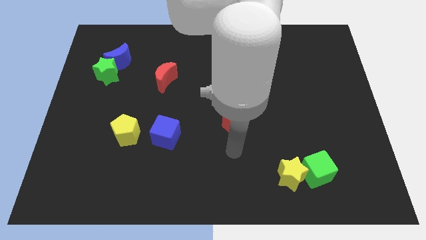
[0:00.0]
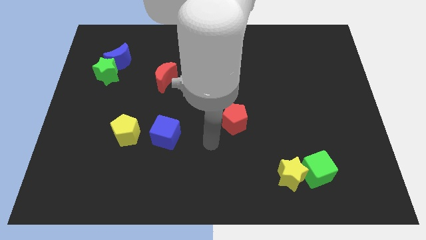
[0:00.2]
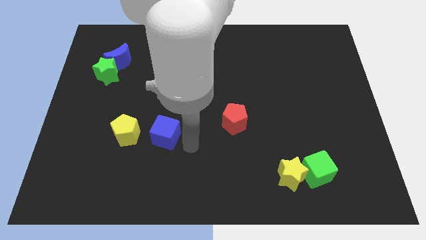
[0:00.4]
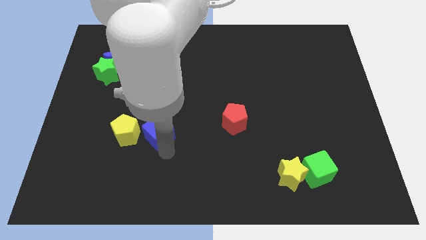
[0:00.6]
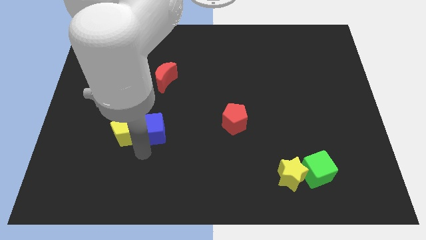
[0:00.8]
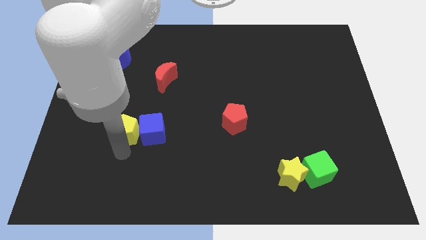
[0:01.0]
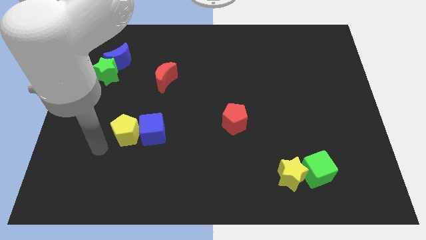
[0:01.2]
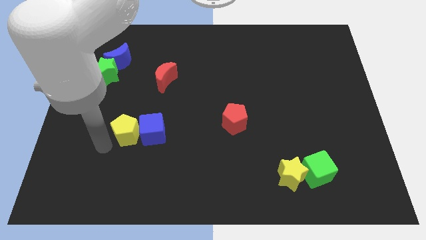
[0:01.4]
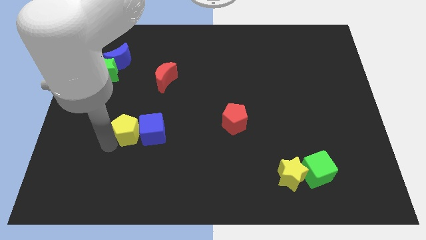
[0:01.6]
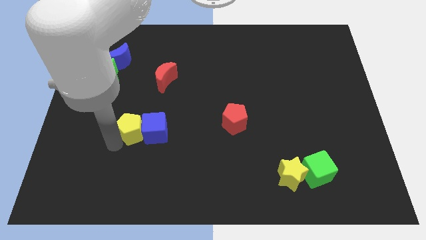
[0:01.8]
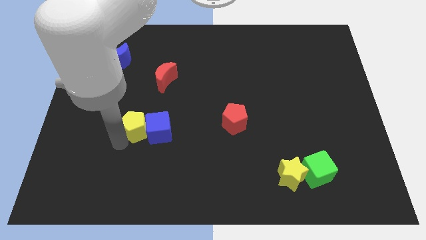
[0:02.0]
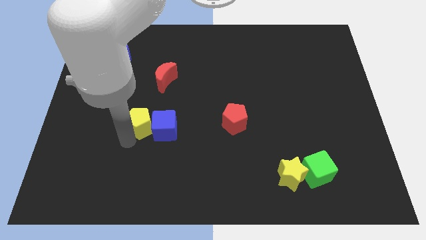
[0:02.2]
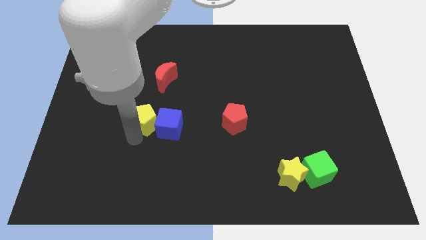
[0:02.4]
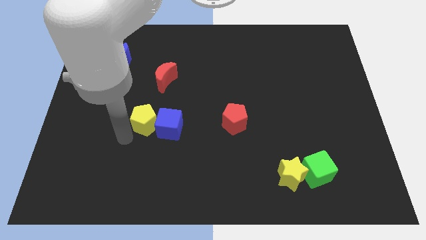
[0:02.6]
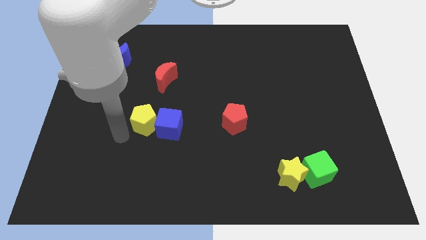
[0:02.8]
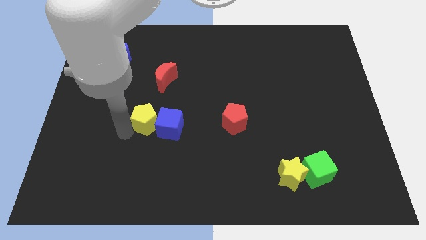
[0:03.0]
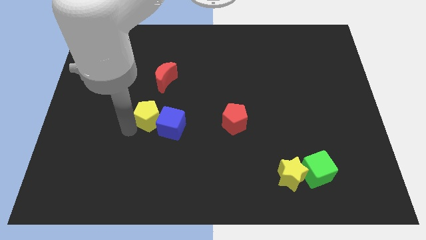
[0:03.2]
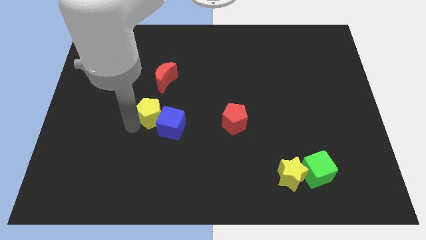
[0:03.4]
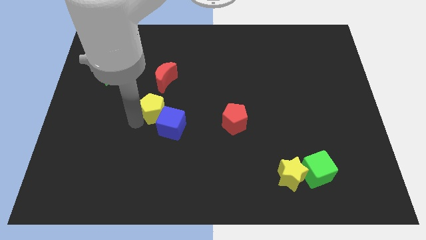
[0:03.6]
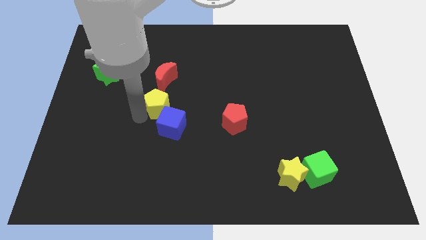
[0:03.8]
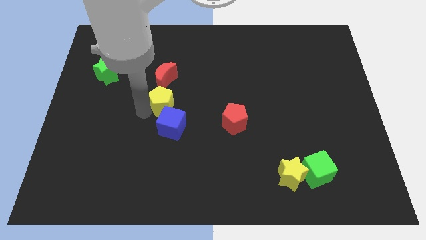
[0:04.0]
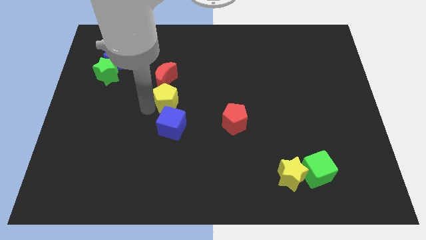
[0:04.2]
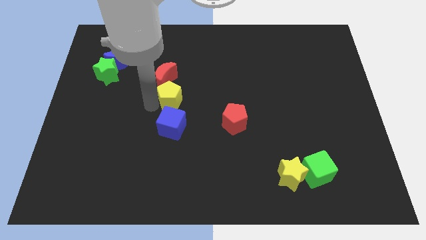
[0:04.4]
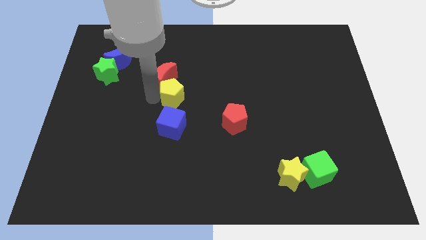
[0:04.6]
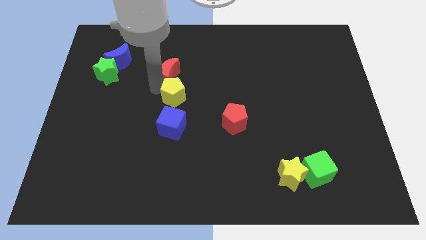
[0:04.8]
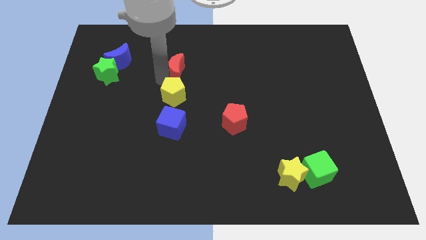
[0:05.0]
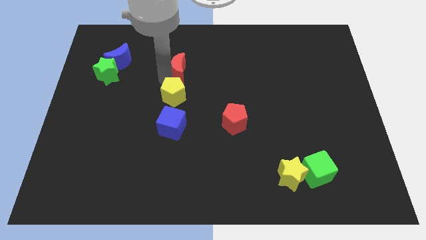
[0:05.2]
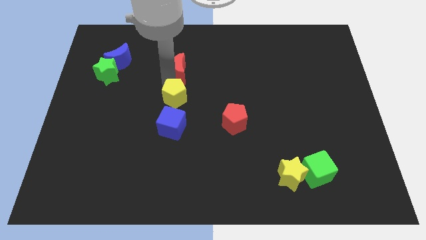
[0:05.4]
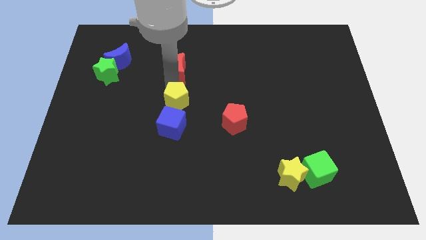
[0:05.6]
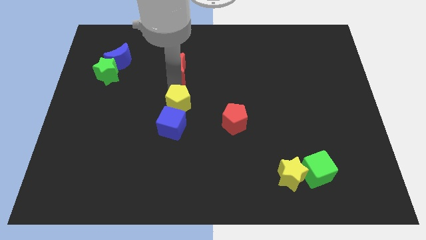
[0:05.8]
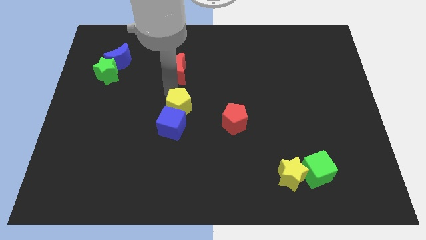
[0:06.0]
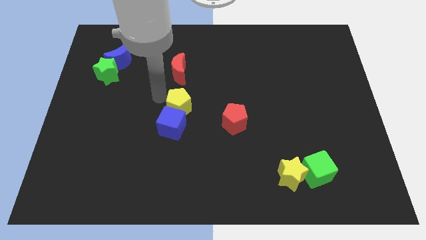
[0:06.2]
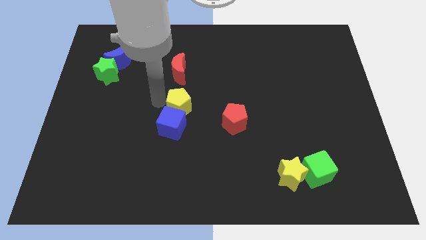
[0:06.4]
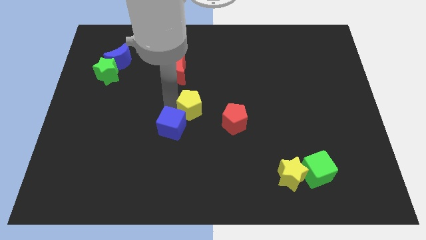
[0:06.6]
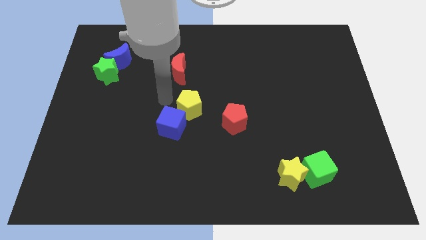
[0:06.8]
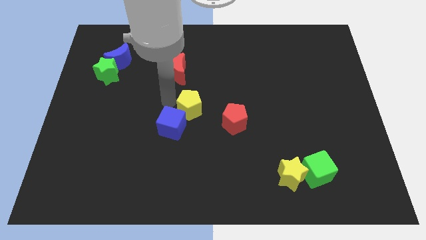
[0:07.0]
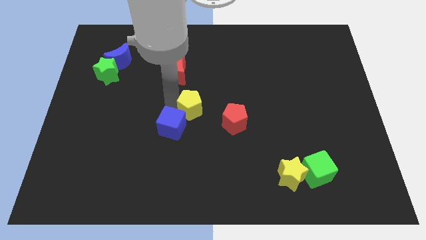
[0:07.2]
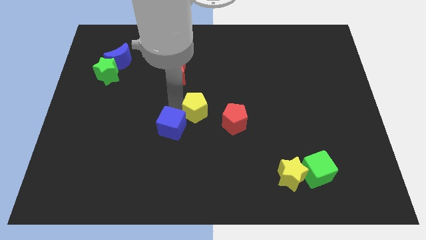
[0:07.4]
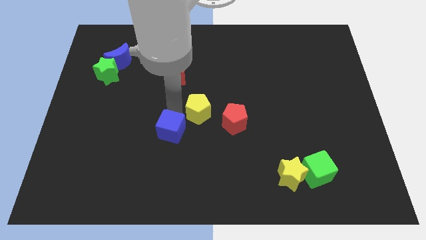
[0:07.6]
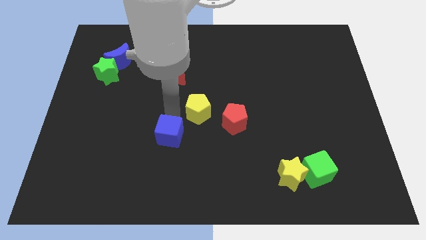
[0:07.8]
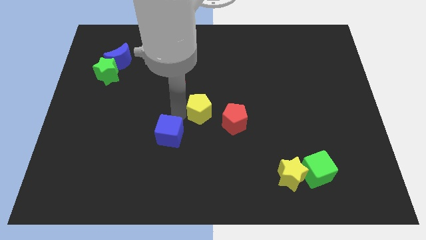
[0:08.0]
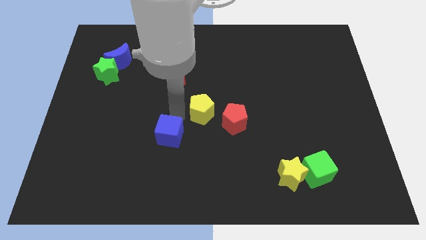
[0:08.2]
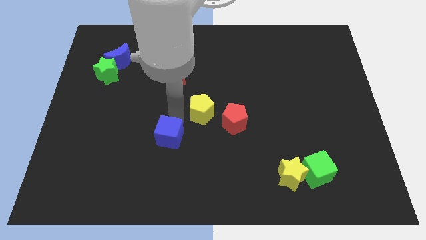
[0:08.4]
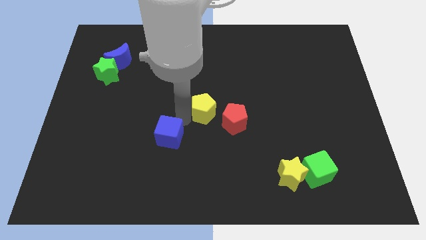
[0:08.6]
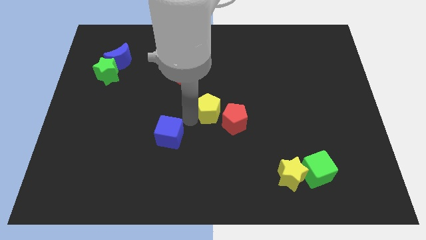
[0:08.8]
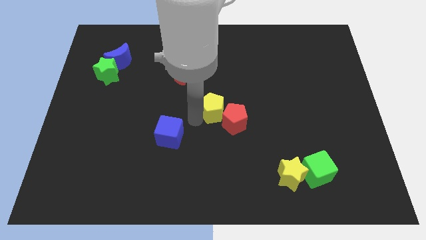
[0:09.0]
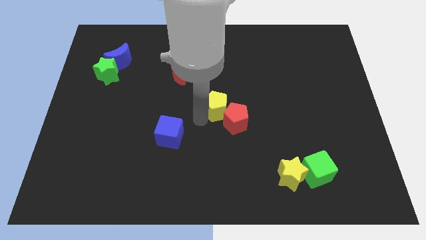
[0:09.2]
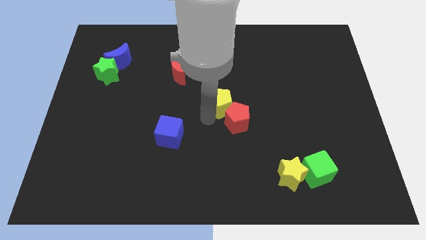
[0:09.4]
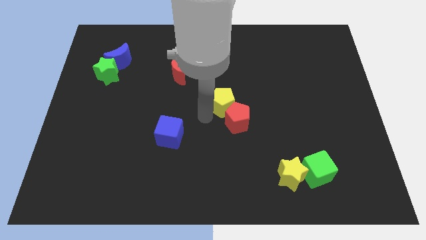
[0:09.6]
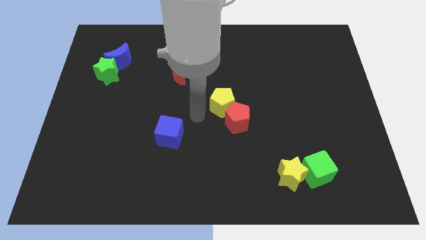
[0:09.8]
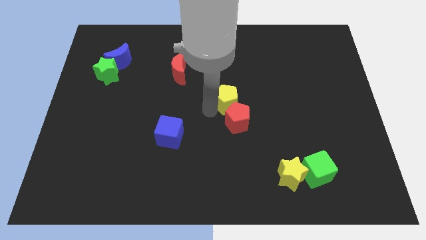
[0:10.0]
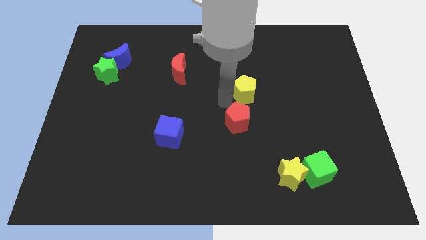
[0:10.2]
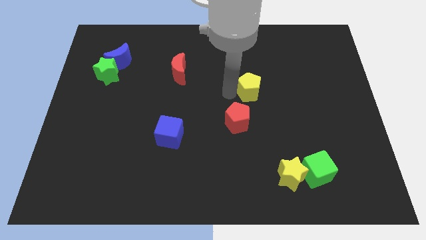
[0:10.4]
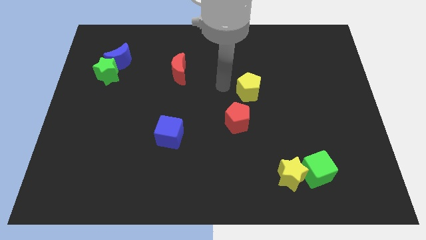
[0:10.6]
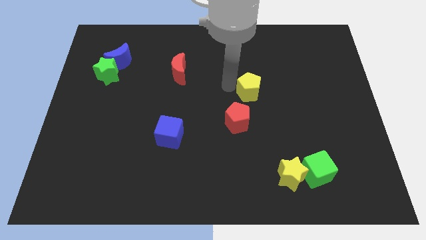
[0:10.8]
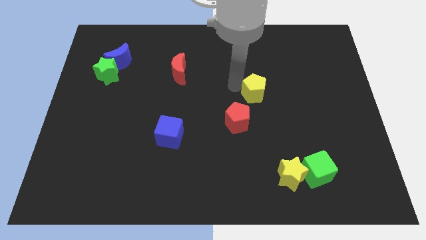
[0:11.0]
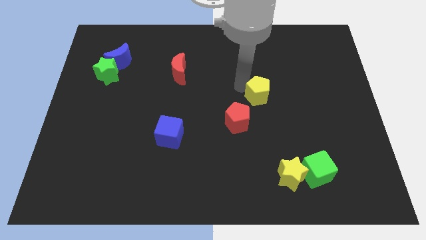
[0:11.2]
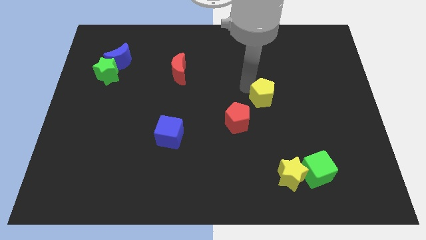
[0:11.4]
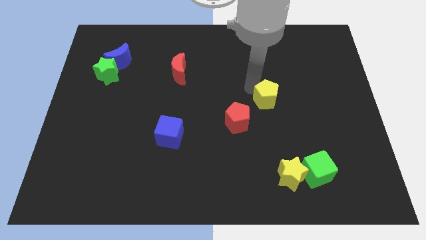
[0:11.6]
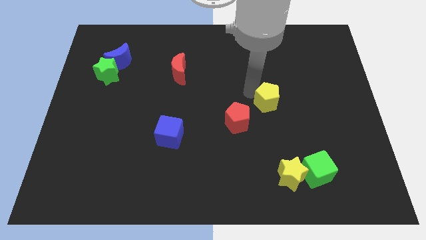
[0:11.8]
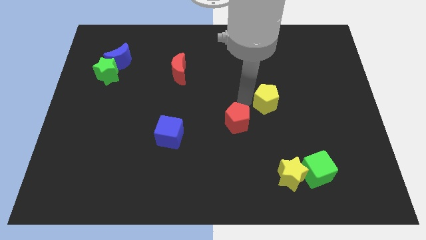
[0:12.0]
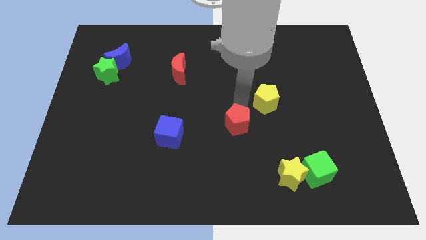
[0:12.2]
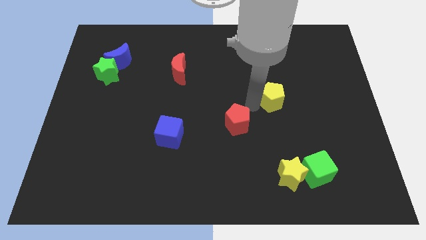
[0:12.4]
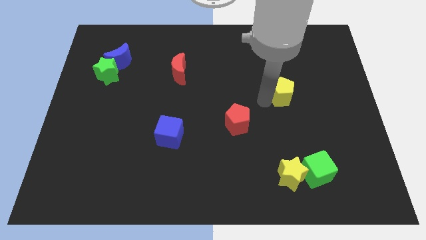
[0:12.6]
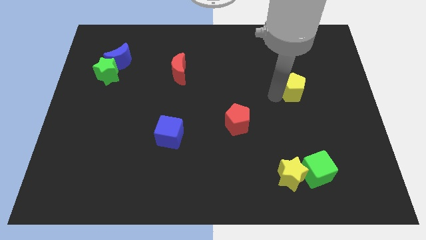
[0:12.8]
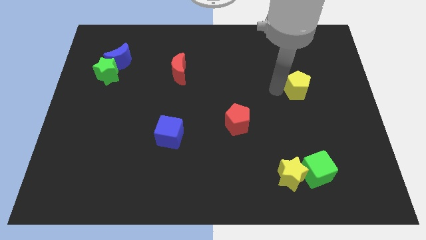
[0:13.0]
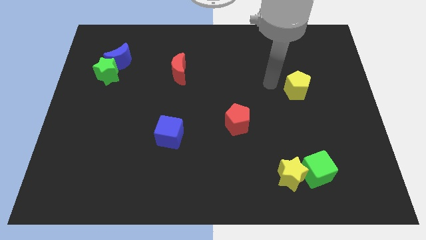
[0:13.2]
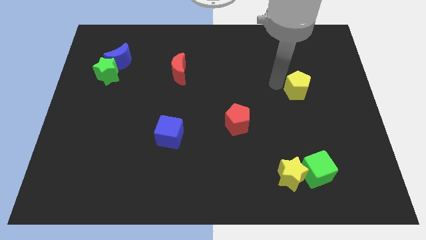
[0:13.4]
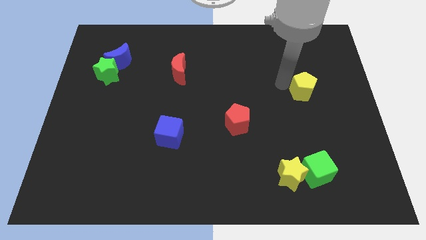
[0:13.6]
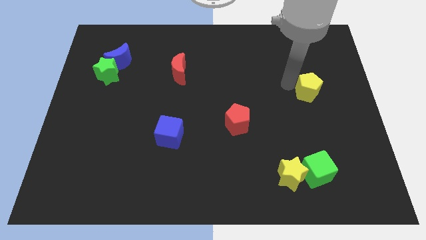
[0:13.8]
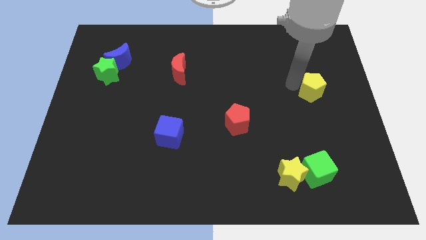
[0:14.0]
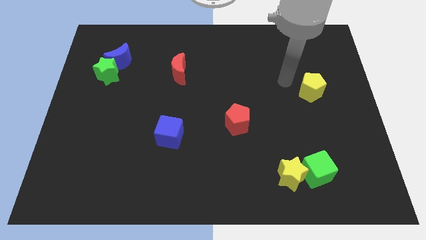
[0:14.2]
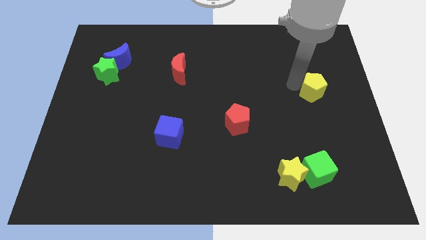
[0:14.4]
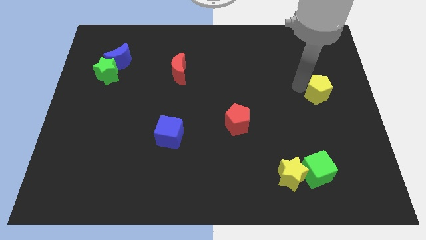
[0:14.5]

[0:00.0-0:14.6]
slide the yellow pentagon to the right side of the board

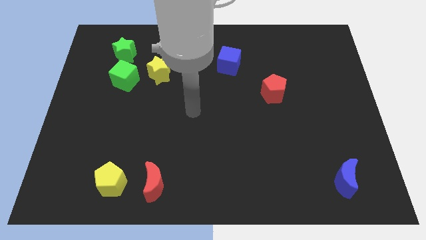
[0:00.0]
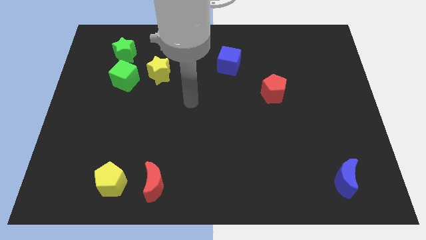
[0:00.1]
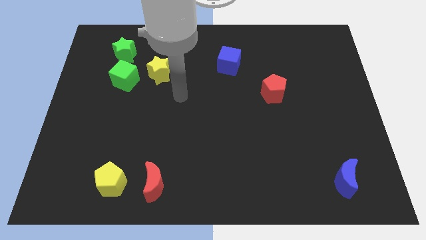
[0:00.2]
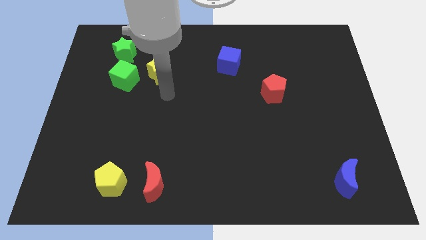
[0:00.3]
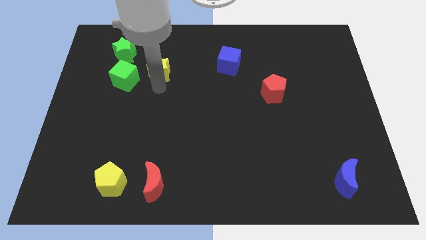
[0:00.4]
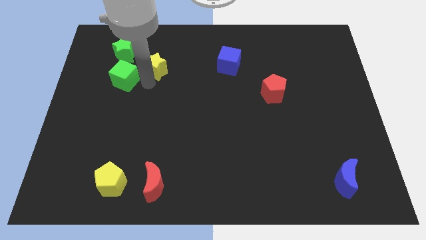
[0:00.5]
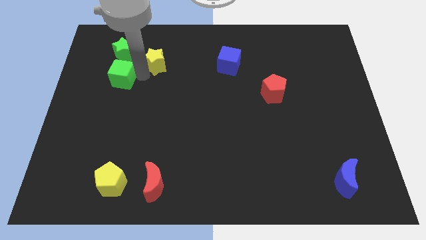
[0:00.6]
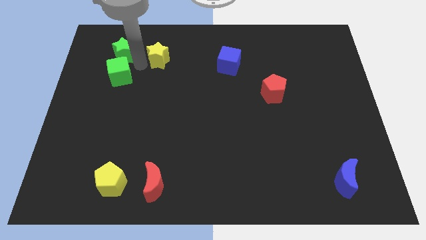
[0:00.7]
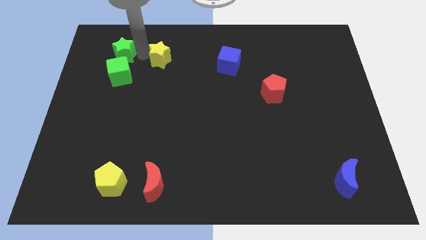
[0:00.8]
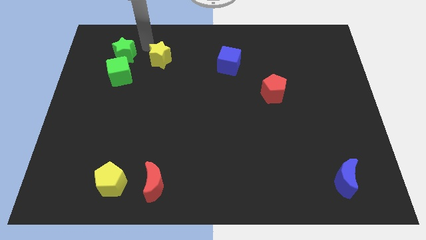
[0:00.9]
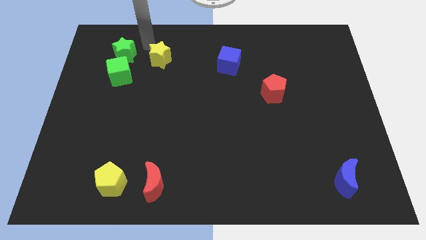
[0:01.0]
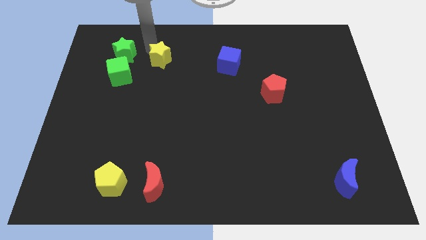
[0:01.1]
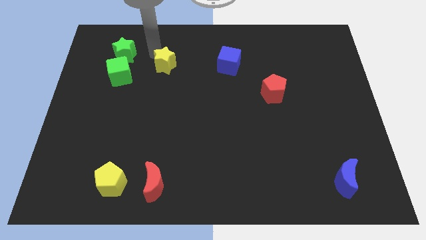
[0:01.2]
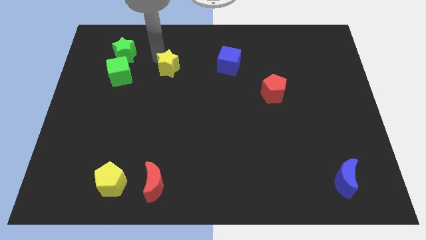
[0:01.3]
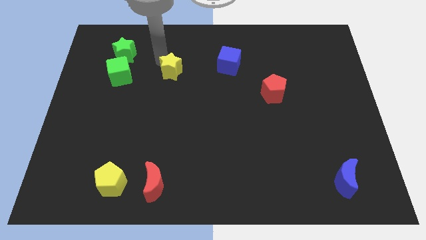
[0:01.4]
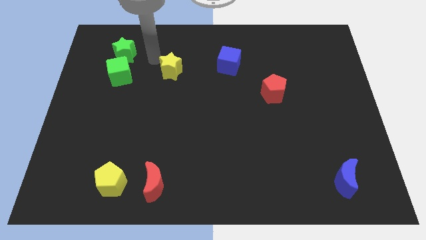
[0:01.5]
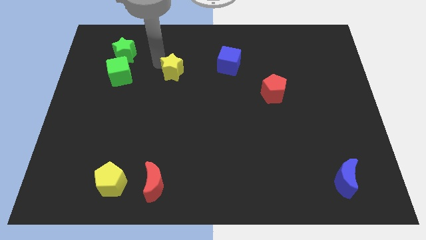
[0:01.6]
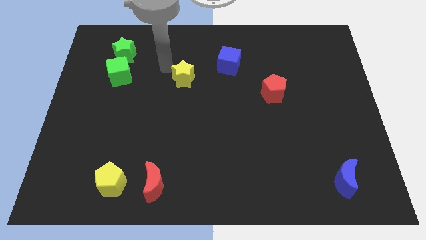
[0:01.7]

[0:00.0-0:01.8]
slide the yellow star to the middle
